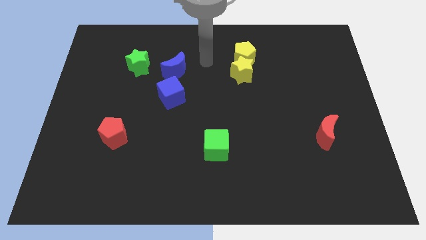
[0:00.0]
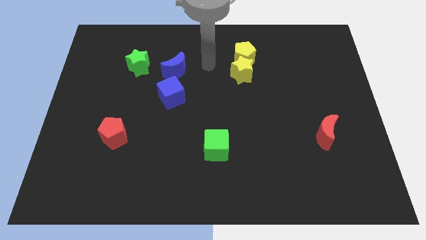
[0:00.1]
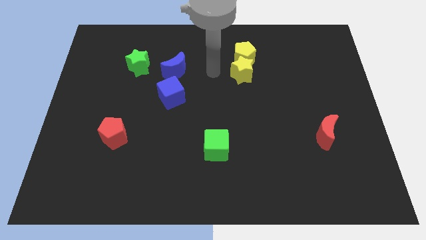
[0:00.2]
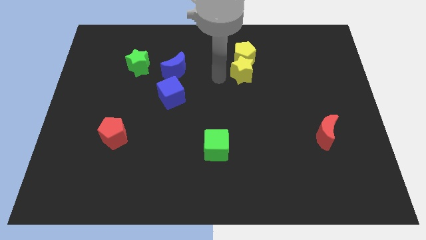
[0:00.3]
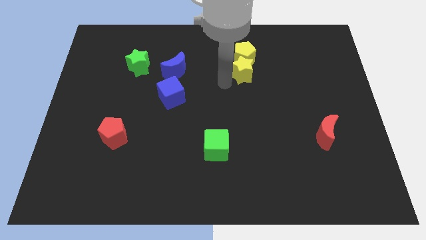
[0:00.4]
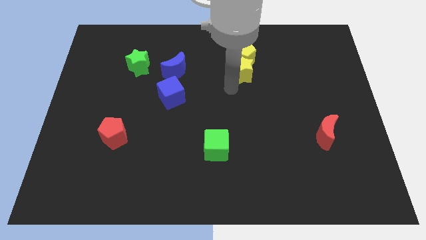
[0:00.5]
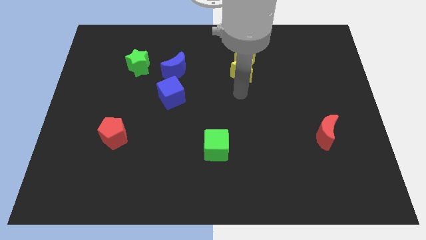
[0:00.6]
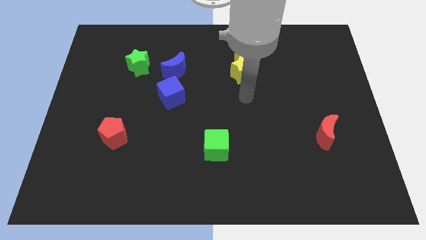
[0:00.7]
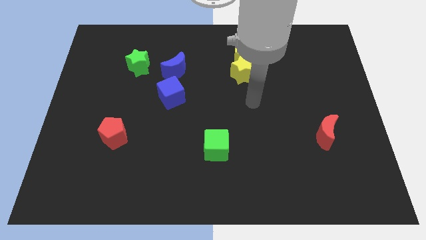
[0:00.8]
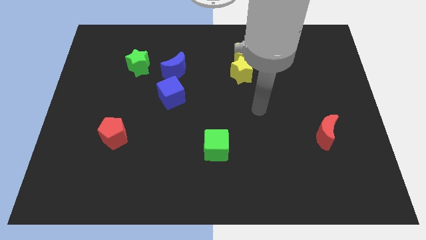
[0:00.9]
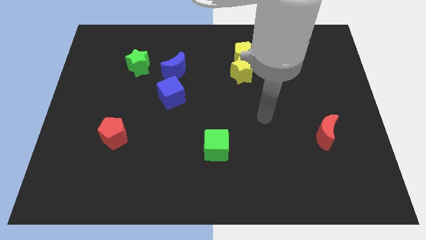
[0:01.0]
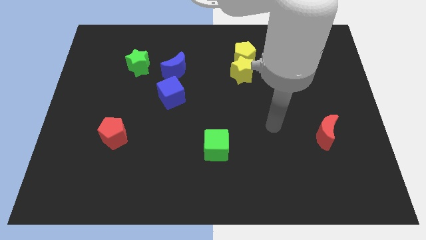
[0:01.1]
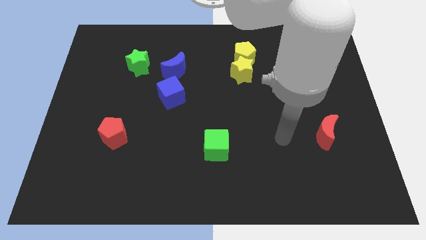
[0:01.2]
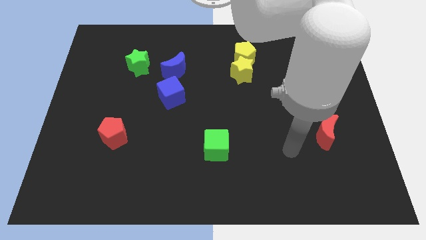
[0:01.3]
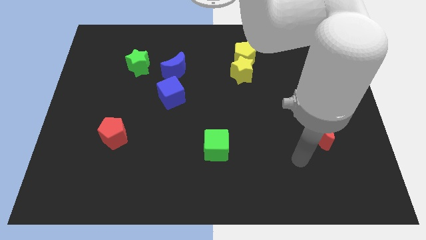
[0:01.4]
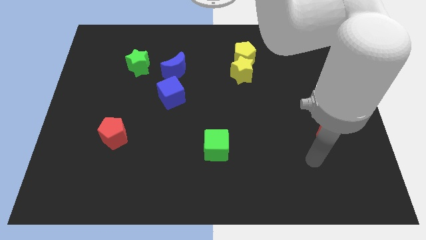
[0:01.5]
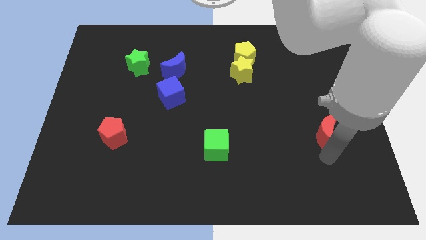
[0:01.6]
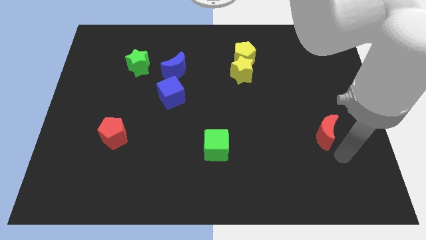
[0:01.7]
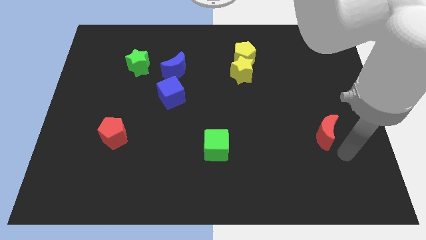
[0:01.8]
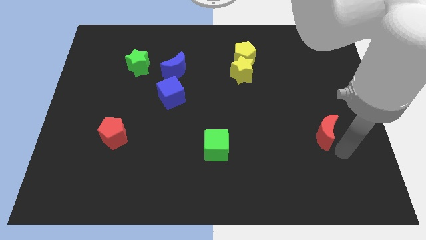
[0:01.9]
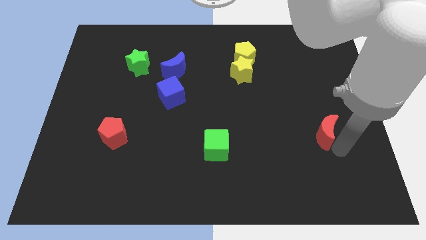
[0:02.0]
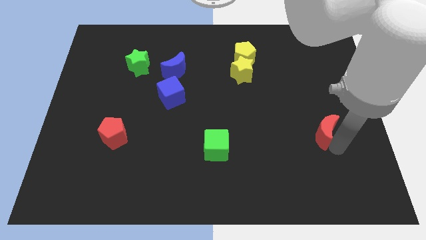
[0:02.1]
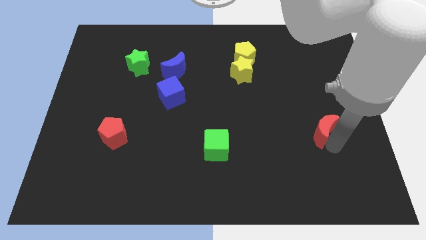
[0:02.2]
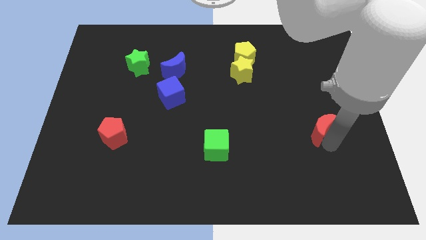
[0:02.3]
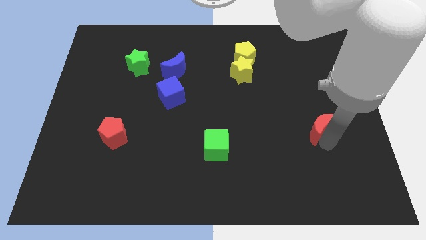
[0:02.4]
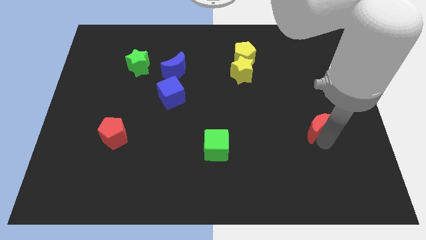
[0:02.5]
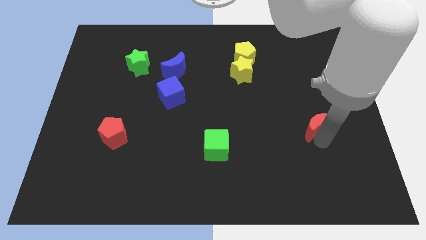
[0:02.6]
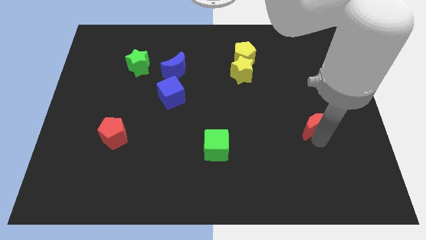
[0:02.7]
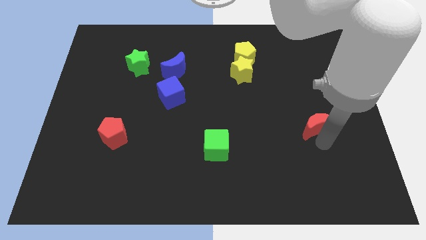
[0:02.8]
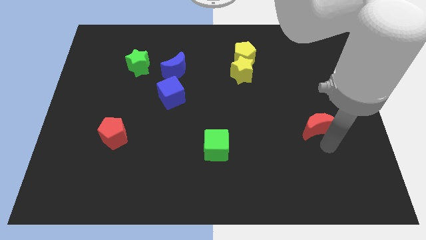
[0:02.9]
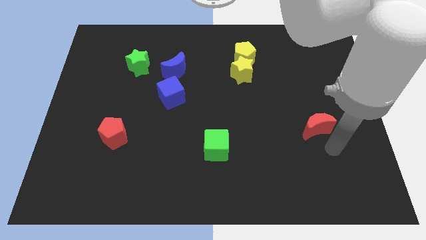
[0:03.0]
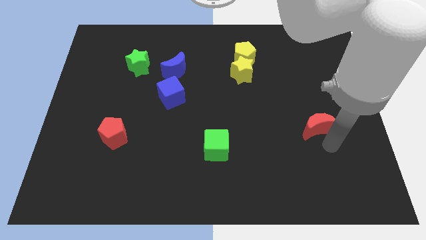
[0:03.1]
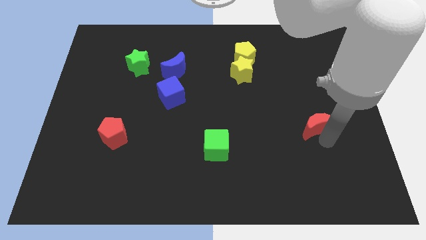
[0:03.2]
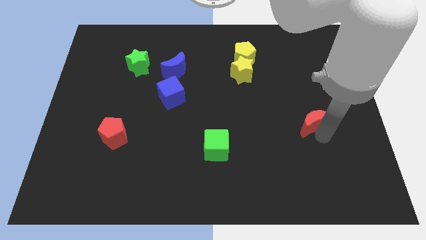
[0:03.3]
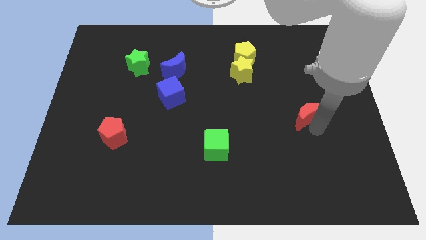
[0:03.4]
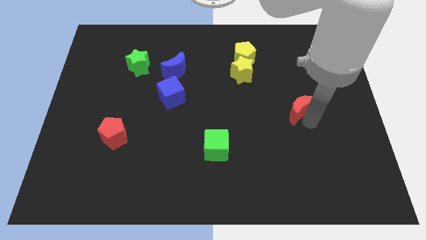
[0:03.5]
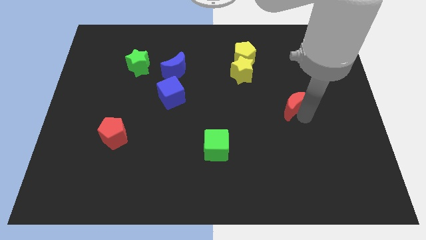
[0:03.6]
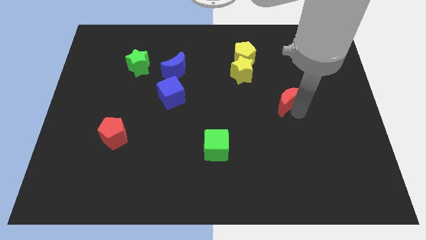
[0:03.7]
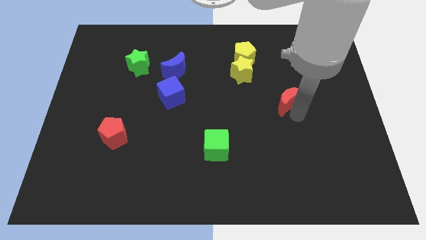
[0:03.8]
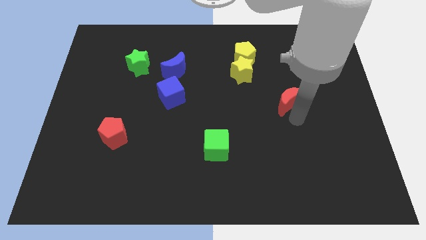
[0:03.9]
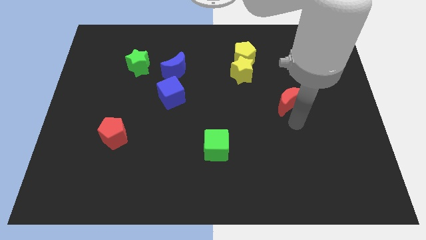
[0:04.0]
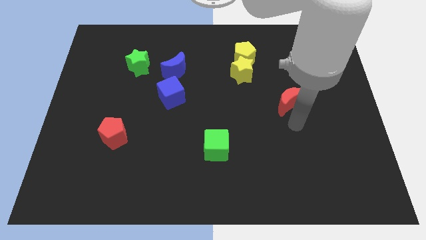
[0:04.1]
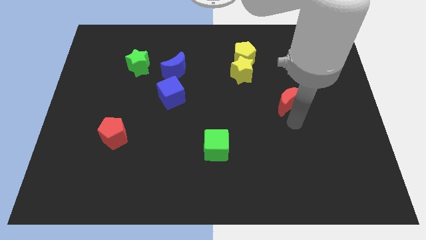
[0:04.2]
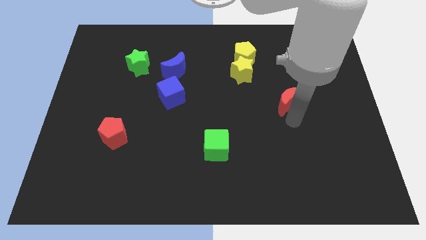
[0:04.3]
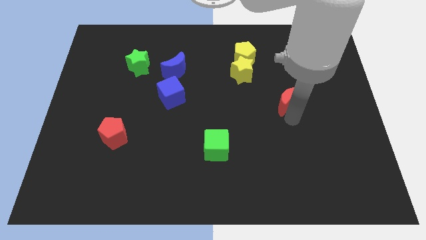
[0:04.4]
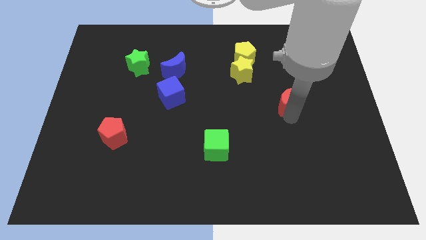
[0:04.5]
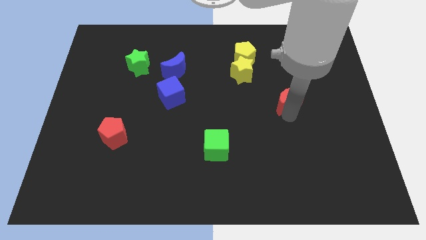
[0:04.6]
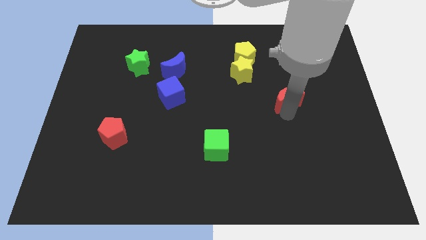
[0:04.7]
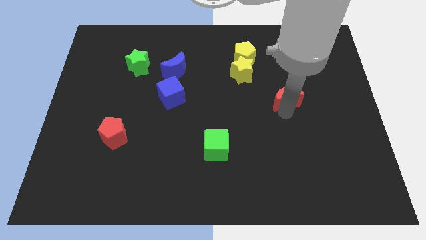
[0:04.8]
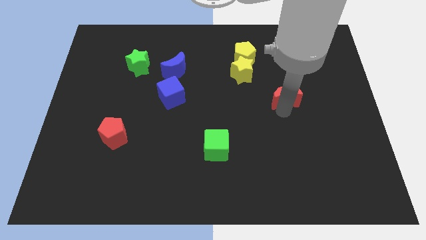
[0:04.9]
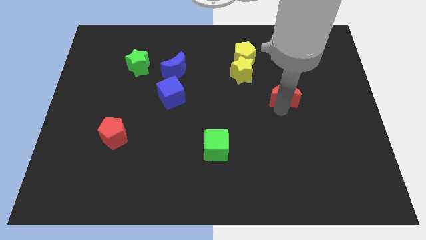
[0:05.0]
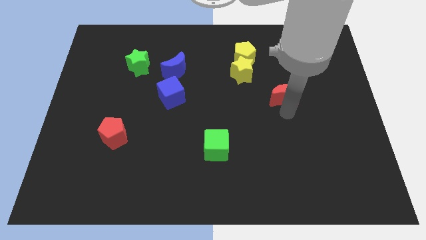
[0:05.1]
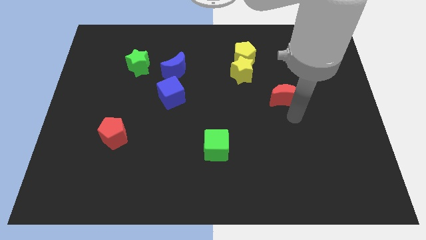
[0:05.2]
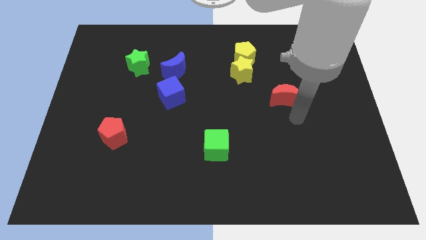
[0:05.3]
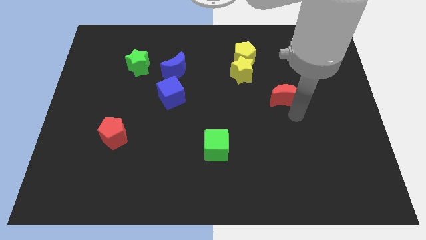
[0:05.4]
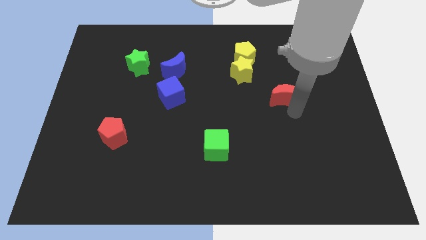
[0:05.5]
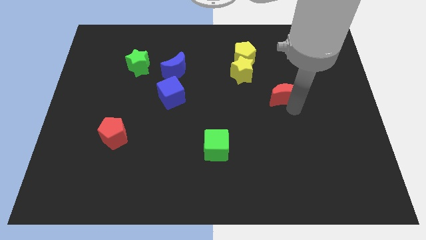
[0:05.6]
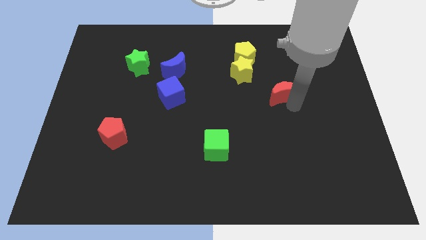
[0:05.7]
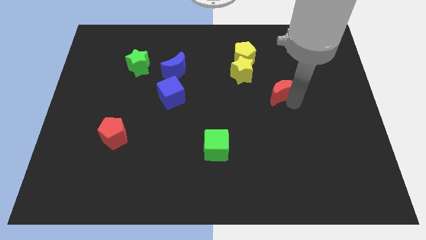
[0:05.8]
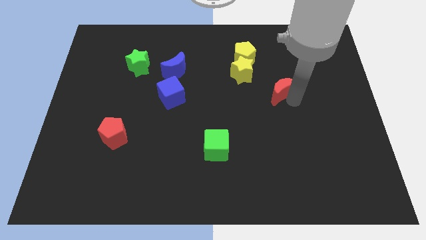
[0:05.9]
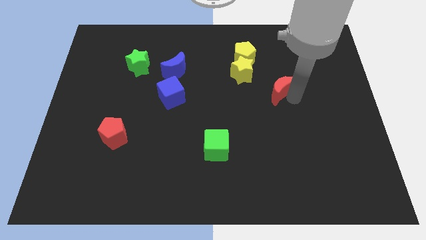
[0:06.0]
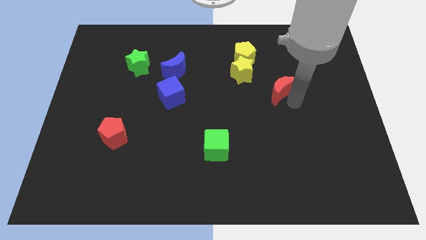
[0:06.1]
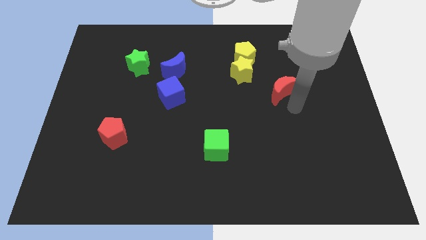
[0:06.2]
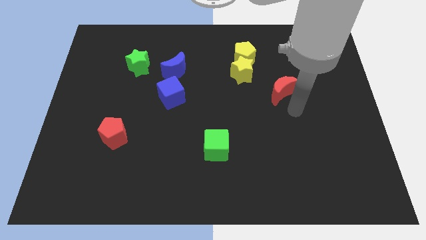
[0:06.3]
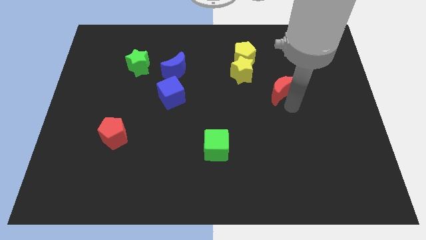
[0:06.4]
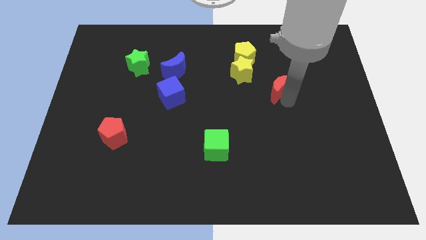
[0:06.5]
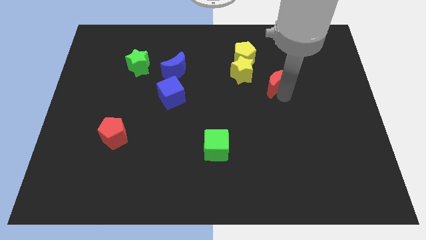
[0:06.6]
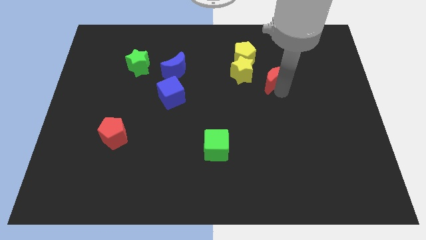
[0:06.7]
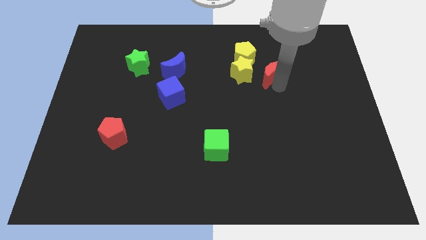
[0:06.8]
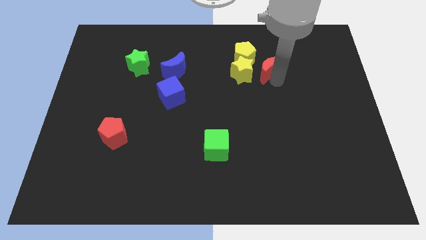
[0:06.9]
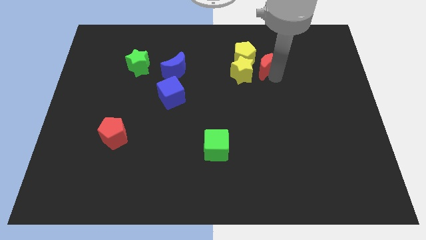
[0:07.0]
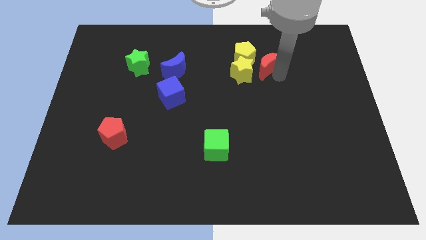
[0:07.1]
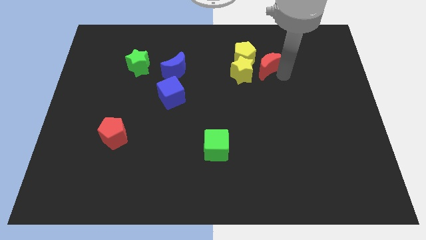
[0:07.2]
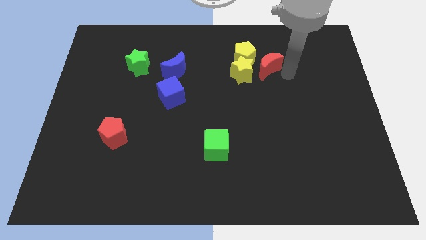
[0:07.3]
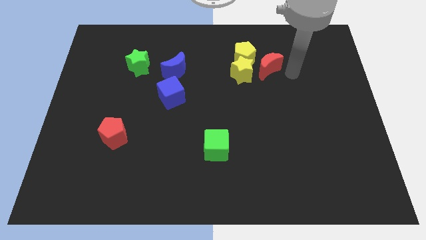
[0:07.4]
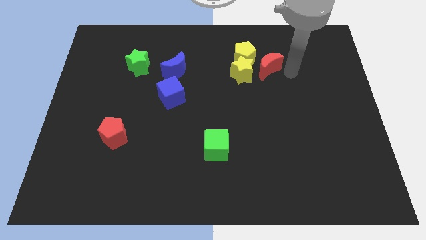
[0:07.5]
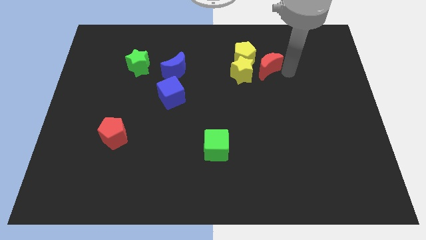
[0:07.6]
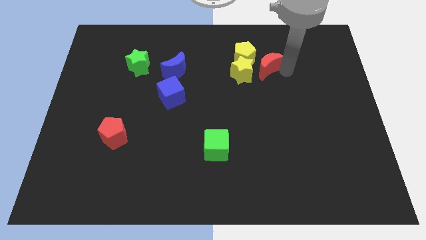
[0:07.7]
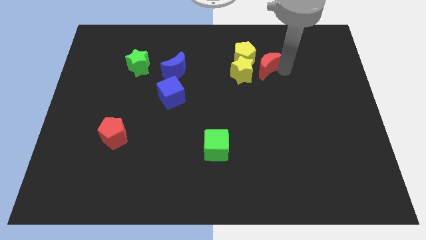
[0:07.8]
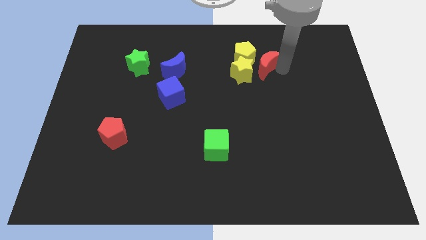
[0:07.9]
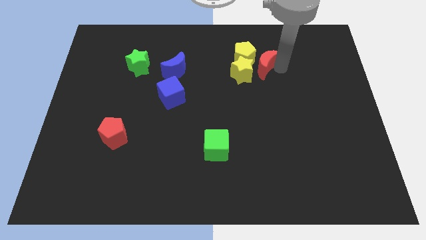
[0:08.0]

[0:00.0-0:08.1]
put the red moon towards the yellow pentagon

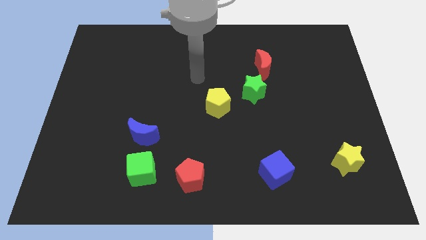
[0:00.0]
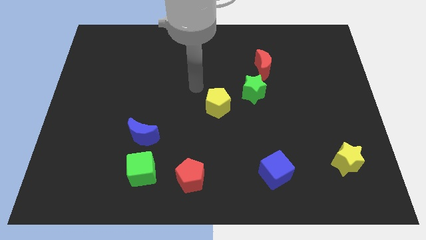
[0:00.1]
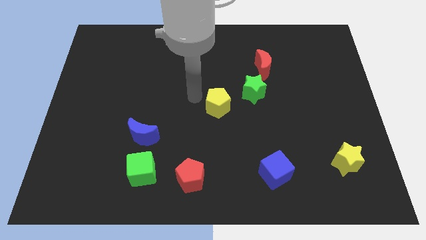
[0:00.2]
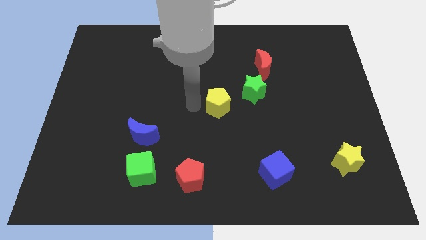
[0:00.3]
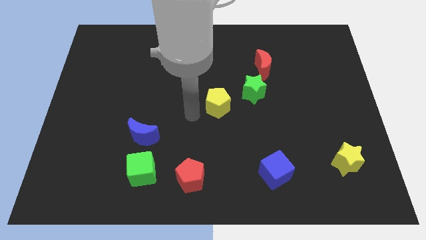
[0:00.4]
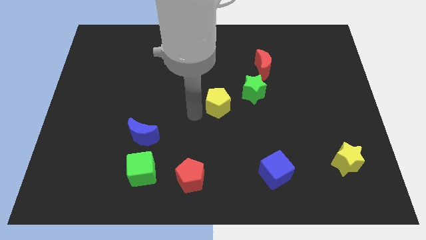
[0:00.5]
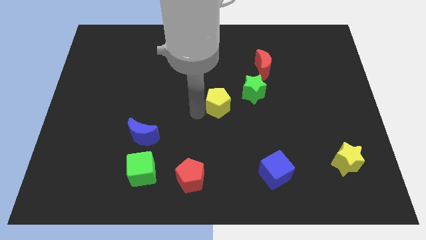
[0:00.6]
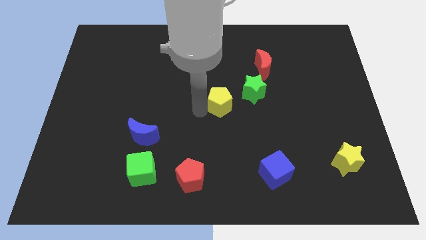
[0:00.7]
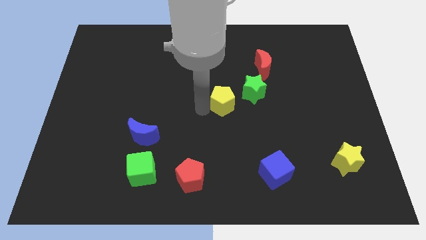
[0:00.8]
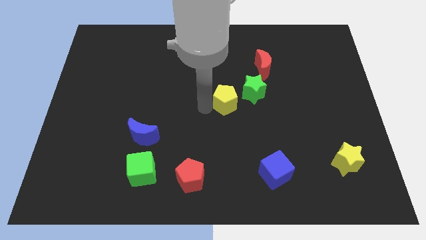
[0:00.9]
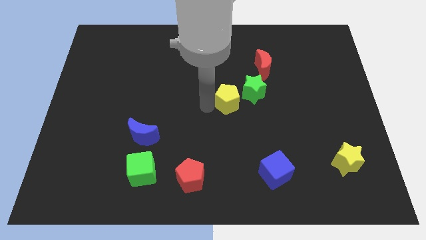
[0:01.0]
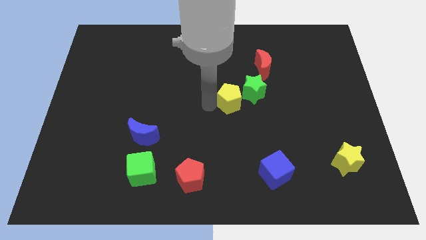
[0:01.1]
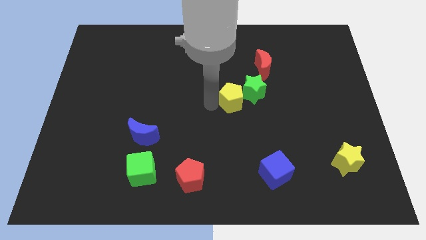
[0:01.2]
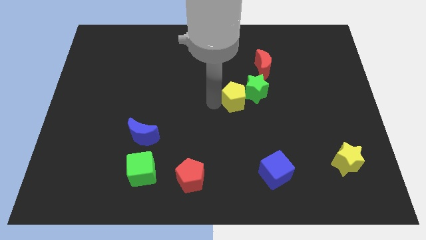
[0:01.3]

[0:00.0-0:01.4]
push the yellow pentagon to the green star
